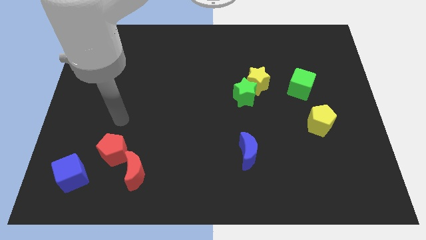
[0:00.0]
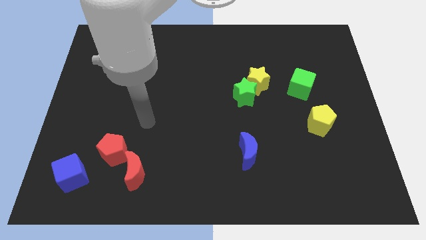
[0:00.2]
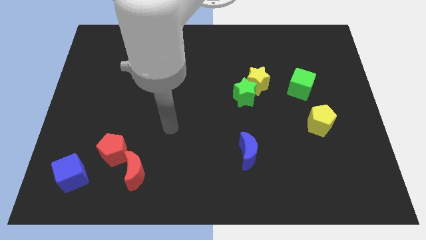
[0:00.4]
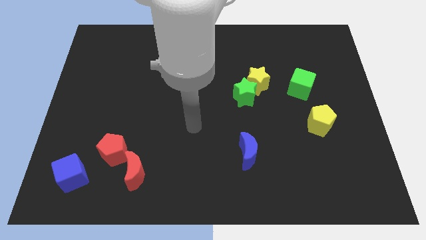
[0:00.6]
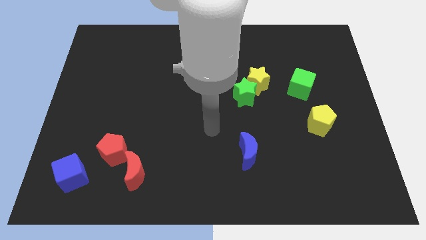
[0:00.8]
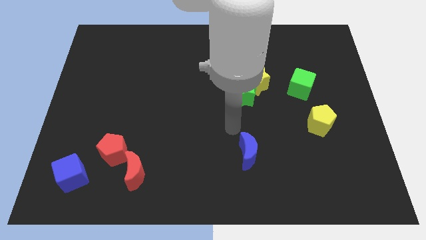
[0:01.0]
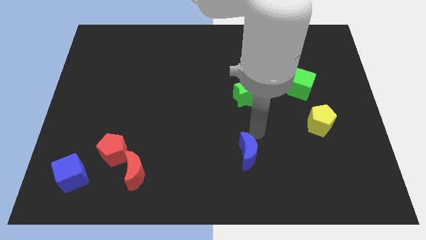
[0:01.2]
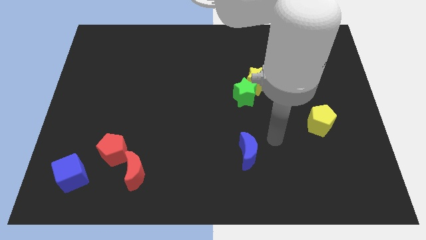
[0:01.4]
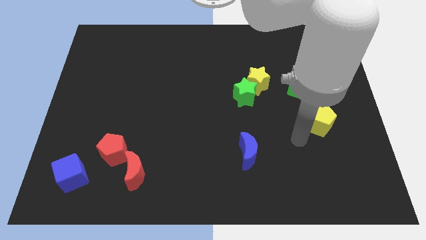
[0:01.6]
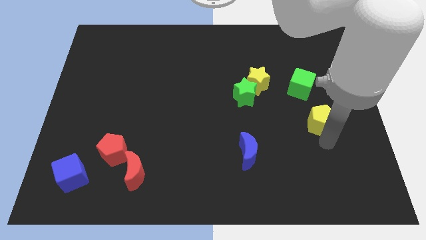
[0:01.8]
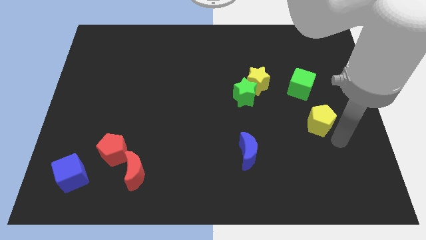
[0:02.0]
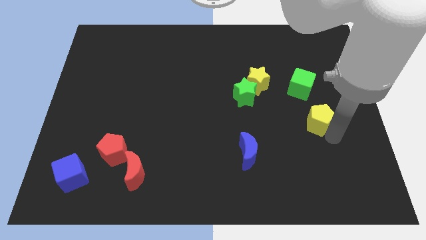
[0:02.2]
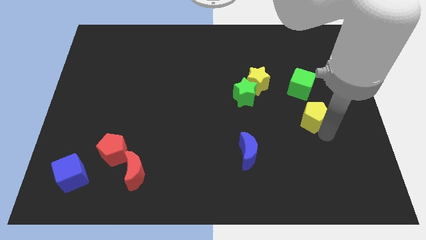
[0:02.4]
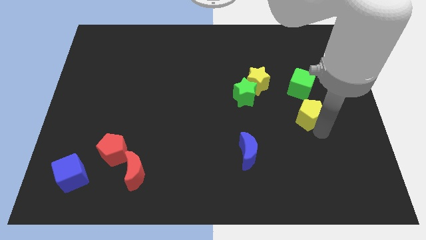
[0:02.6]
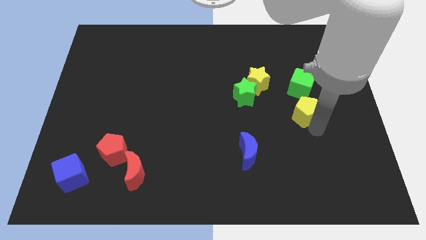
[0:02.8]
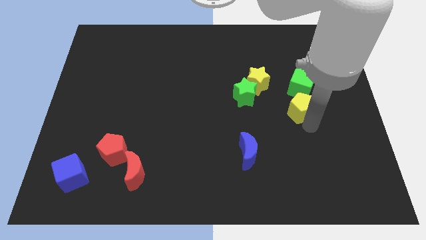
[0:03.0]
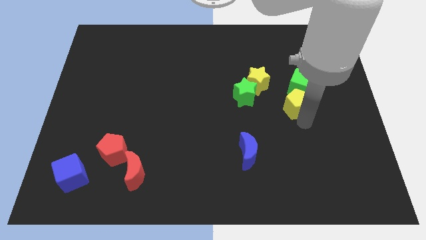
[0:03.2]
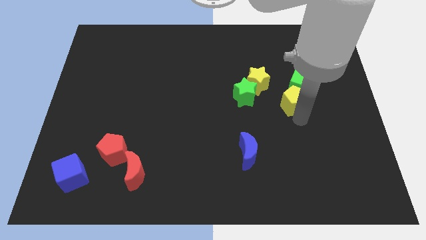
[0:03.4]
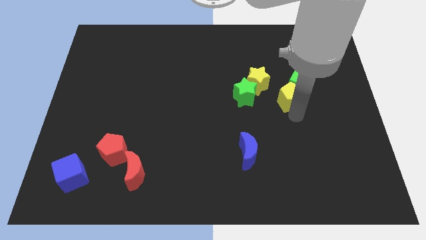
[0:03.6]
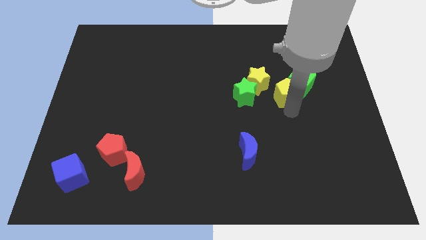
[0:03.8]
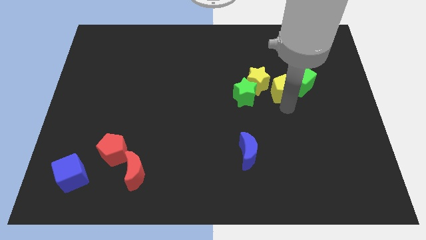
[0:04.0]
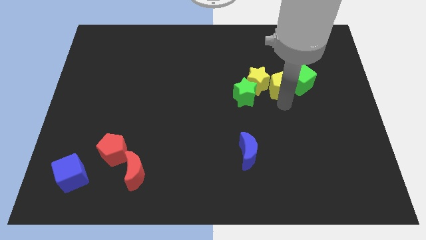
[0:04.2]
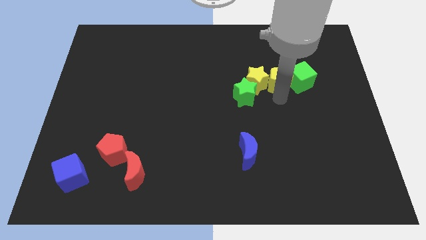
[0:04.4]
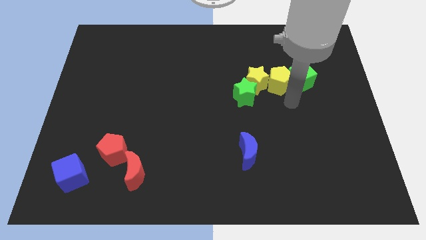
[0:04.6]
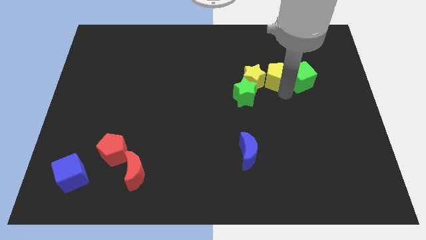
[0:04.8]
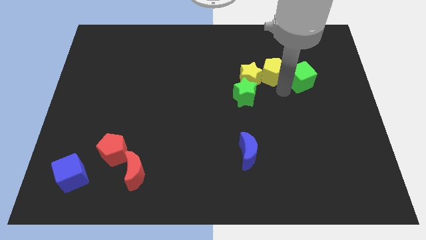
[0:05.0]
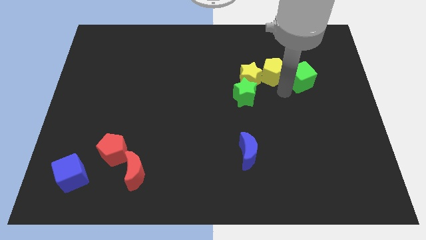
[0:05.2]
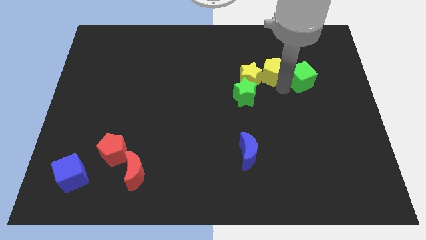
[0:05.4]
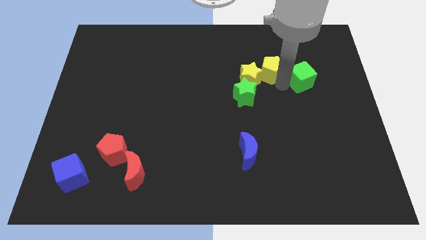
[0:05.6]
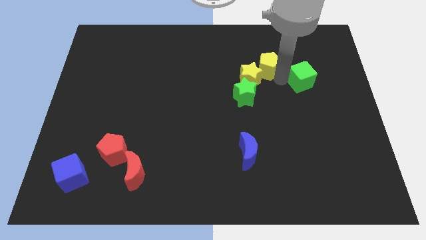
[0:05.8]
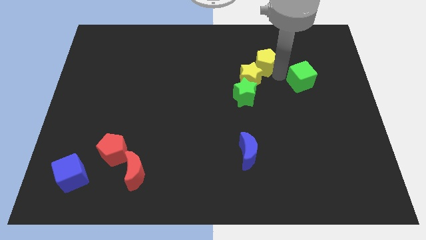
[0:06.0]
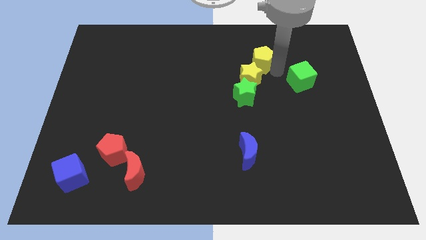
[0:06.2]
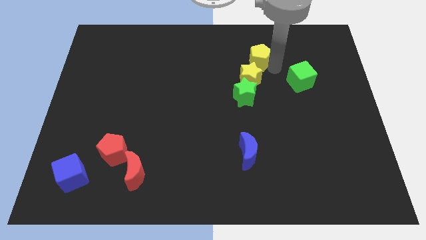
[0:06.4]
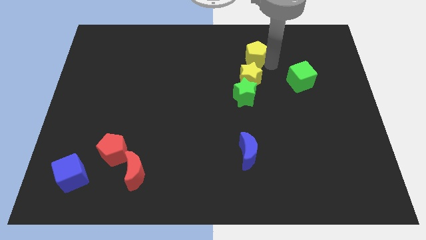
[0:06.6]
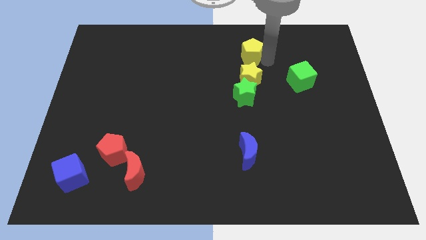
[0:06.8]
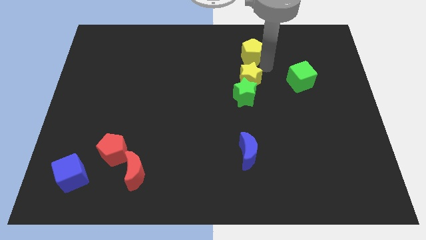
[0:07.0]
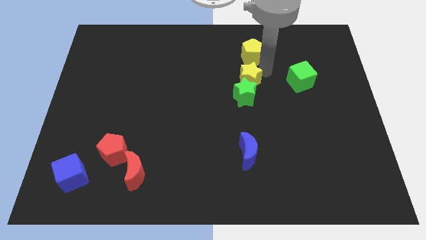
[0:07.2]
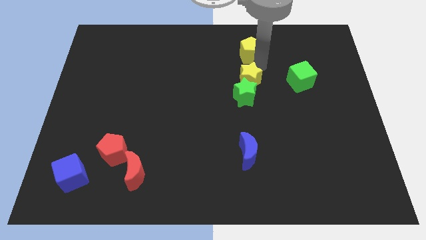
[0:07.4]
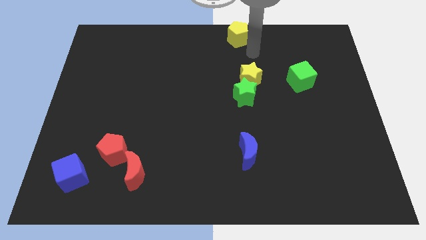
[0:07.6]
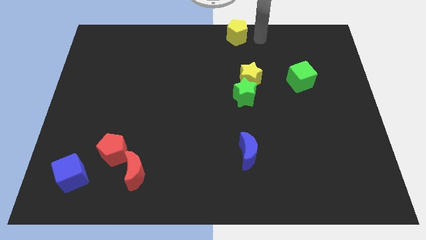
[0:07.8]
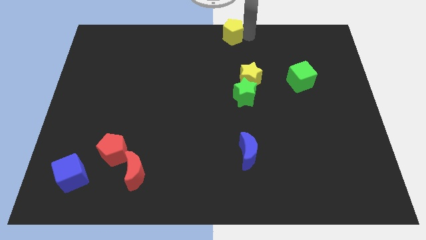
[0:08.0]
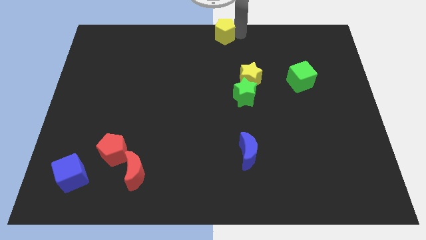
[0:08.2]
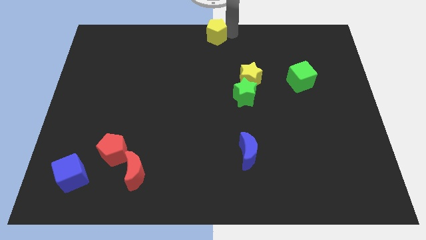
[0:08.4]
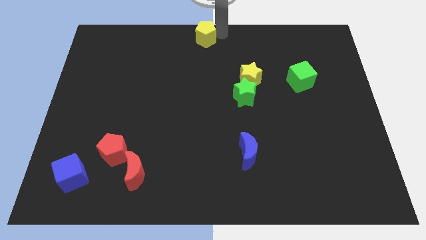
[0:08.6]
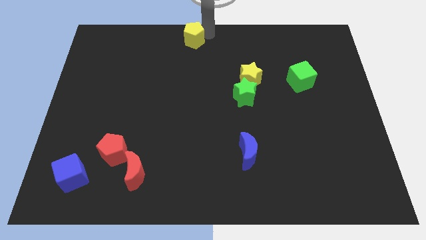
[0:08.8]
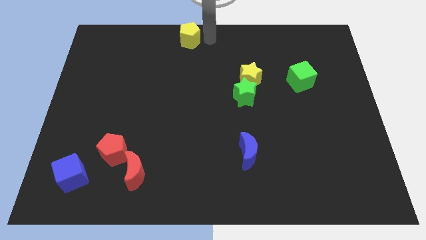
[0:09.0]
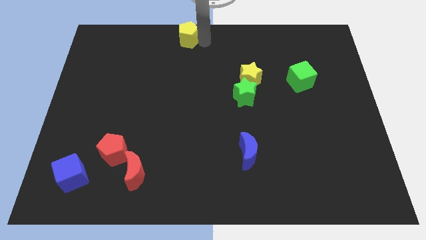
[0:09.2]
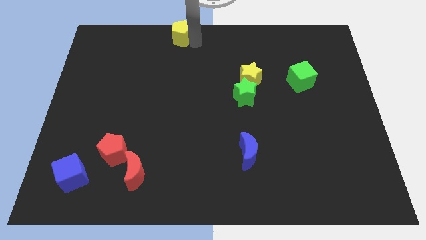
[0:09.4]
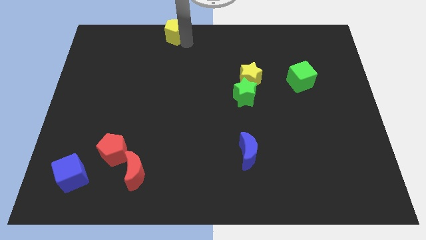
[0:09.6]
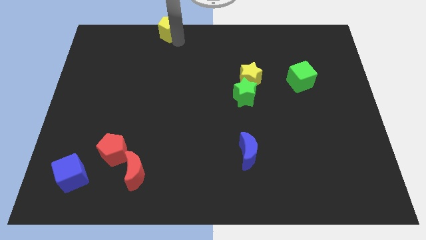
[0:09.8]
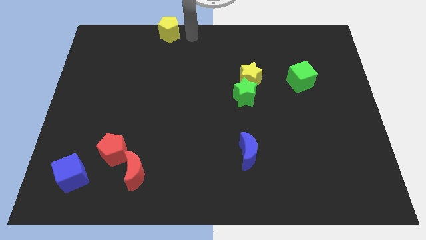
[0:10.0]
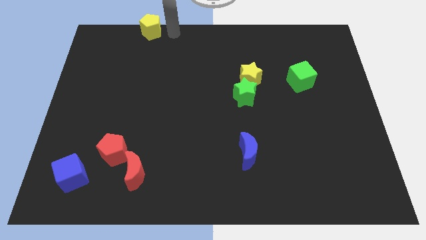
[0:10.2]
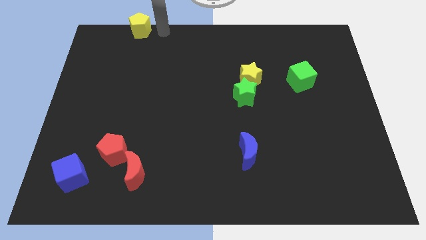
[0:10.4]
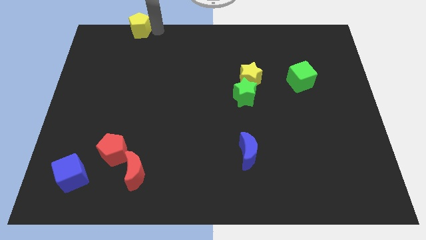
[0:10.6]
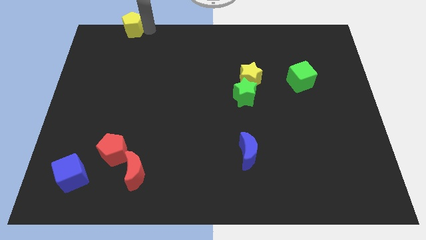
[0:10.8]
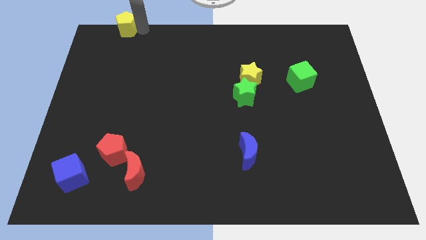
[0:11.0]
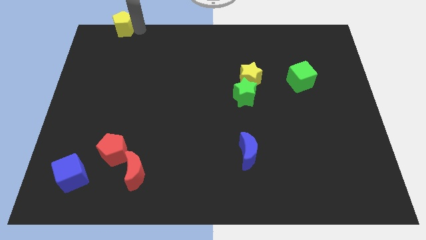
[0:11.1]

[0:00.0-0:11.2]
slide the yellow pentagon to the top left of the board

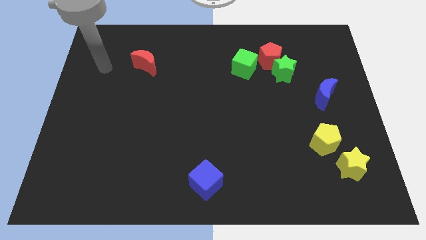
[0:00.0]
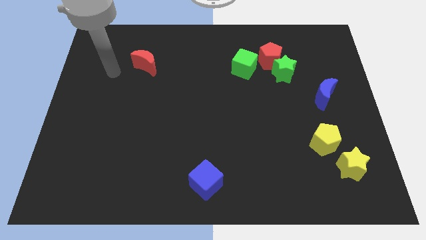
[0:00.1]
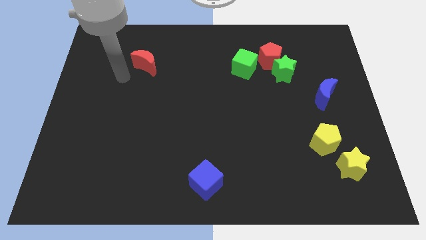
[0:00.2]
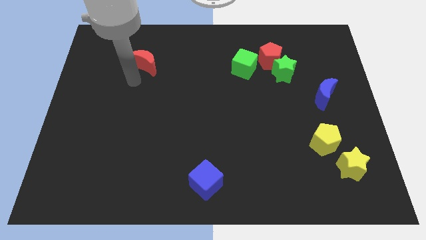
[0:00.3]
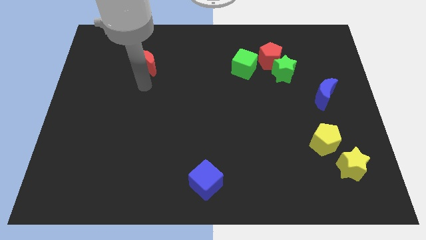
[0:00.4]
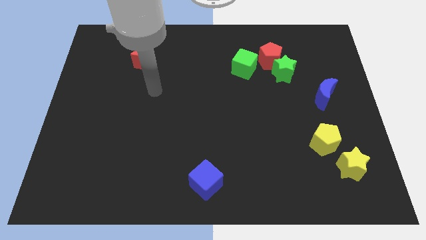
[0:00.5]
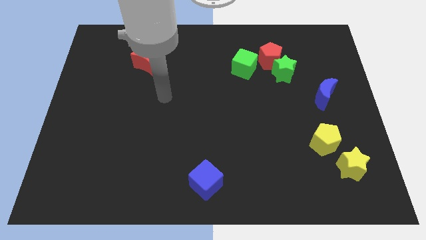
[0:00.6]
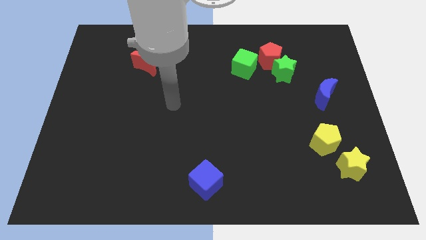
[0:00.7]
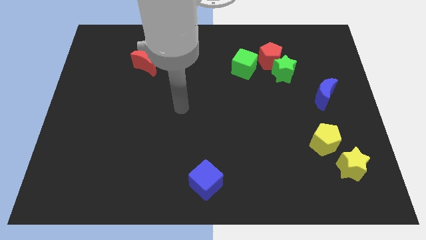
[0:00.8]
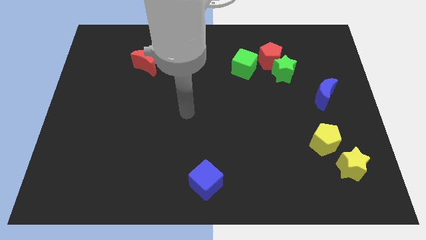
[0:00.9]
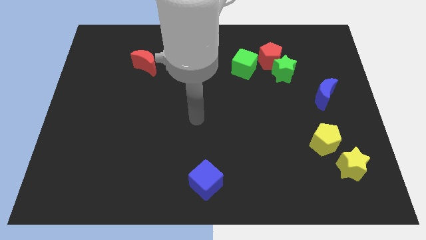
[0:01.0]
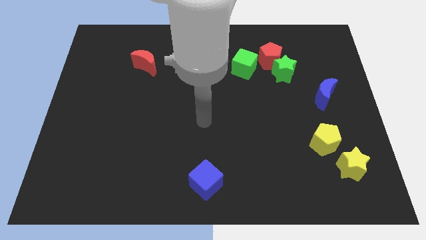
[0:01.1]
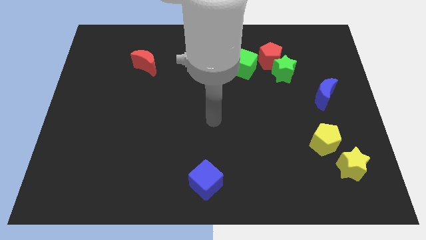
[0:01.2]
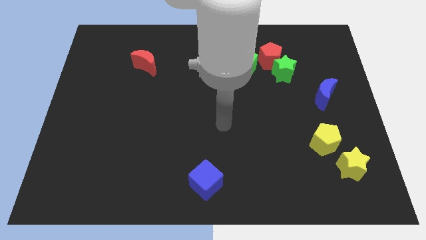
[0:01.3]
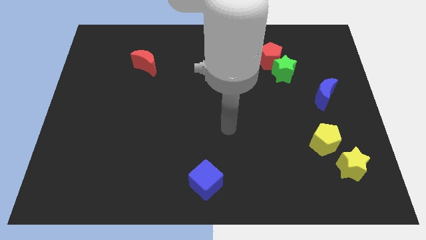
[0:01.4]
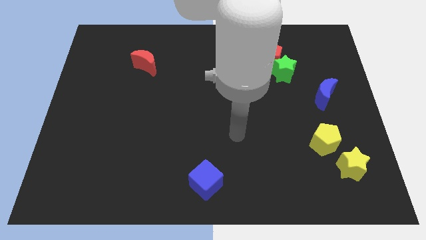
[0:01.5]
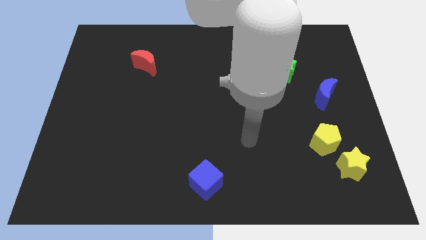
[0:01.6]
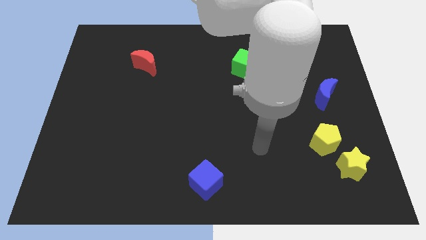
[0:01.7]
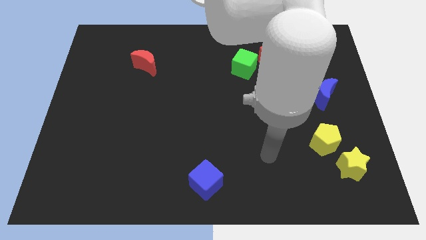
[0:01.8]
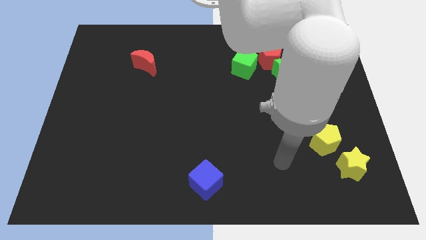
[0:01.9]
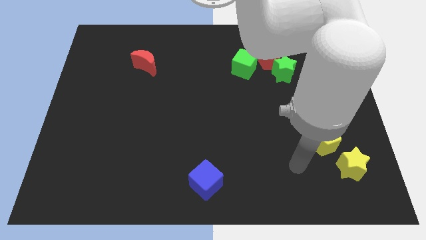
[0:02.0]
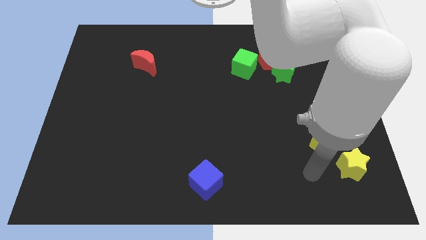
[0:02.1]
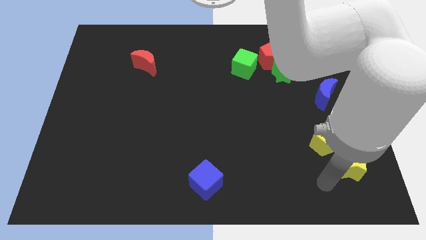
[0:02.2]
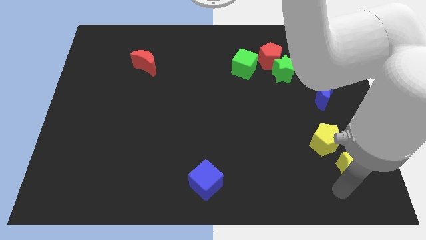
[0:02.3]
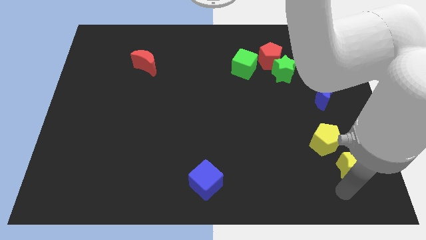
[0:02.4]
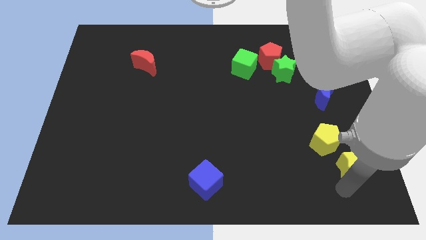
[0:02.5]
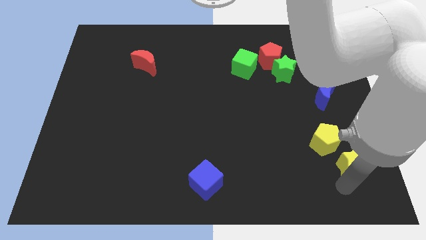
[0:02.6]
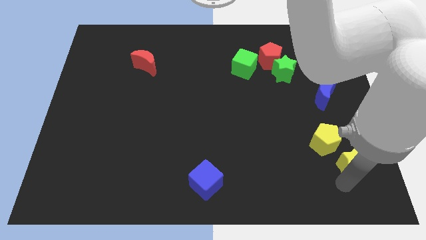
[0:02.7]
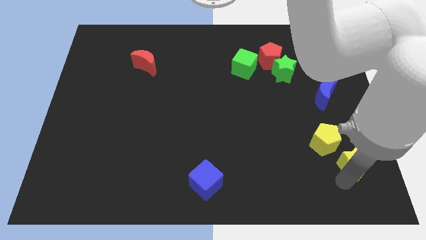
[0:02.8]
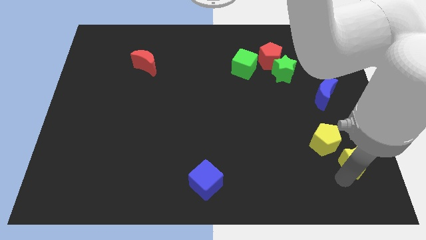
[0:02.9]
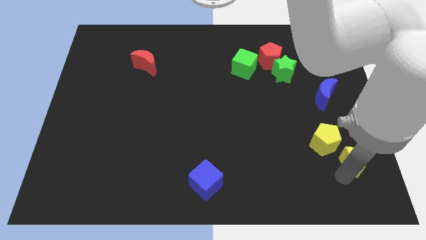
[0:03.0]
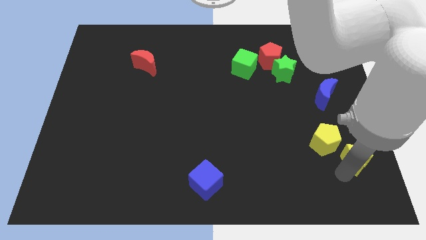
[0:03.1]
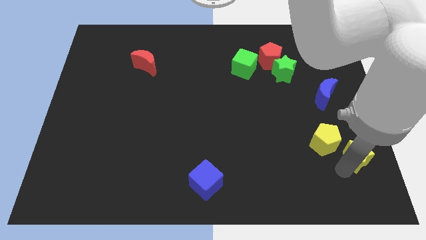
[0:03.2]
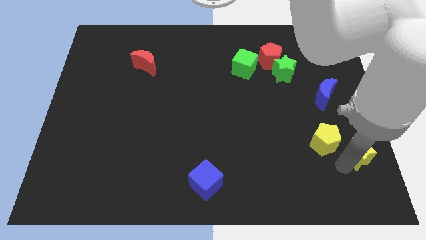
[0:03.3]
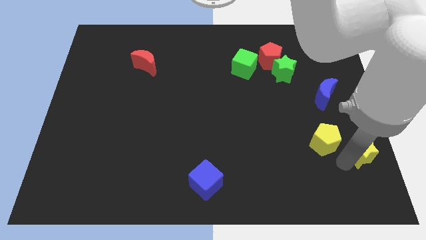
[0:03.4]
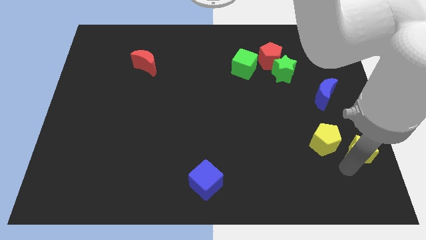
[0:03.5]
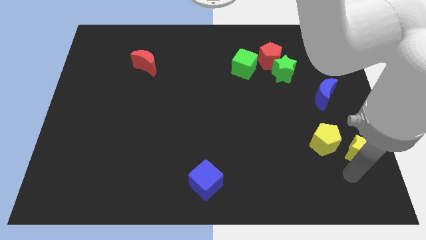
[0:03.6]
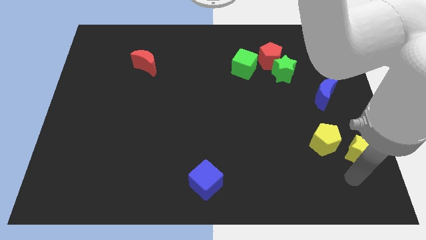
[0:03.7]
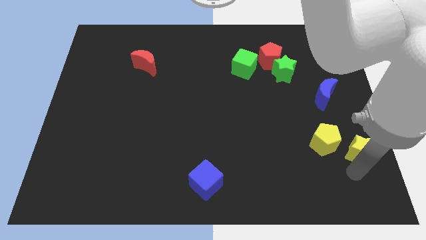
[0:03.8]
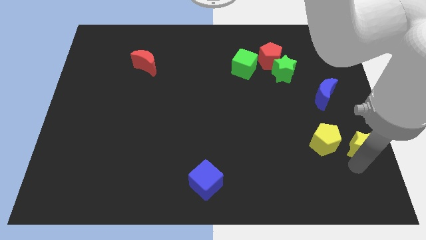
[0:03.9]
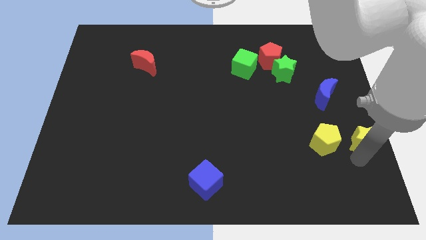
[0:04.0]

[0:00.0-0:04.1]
slide the yellow star to the right side
